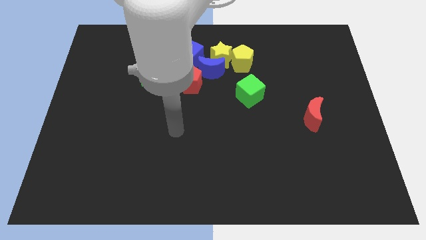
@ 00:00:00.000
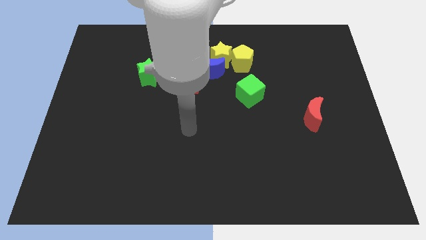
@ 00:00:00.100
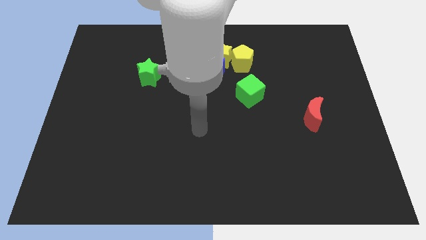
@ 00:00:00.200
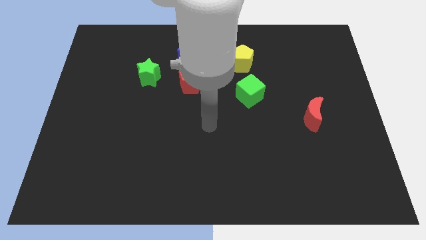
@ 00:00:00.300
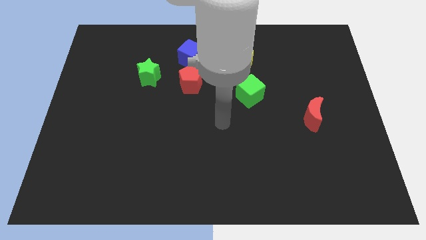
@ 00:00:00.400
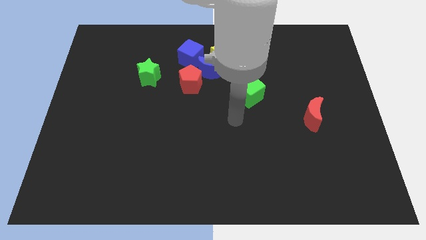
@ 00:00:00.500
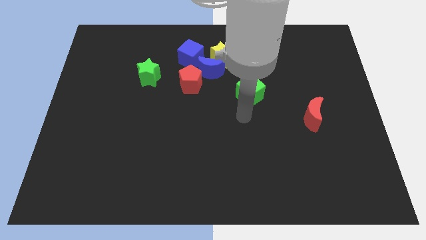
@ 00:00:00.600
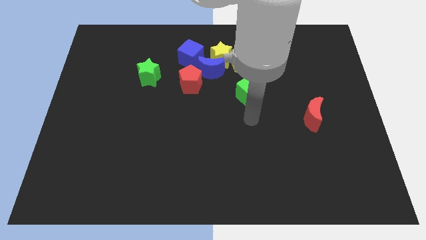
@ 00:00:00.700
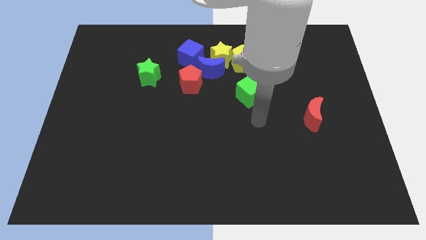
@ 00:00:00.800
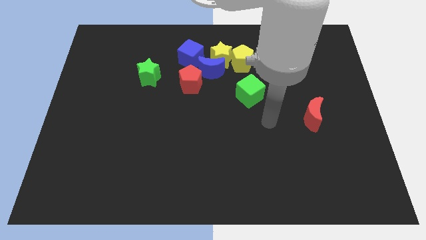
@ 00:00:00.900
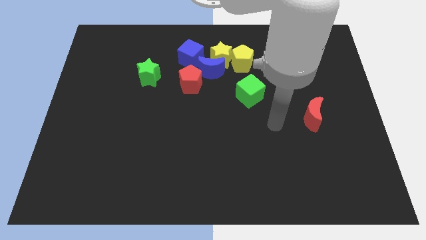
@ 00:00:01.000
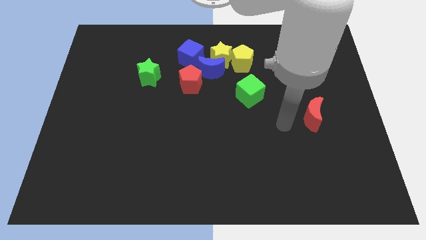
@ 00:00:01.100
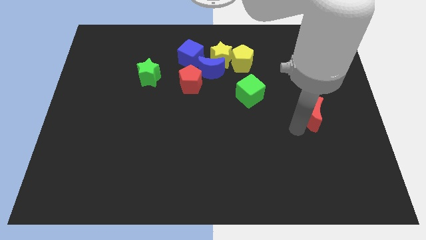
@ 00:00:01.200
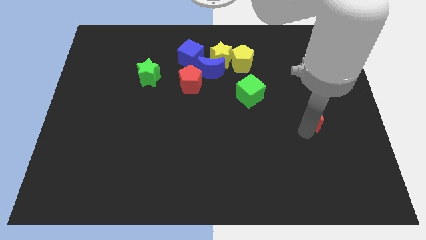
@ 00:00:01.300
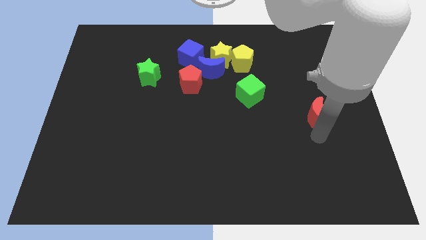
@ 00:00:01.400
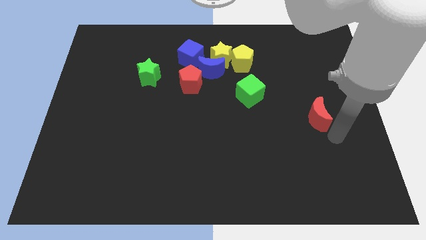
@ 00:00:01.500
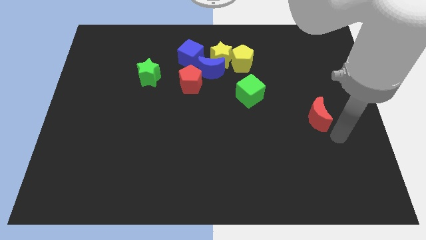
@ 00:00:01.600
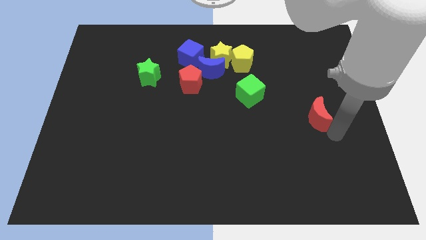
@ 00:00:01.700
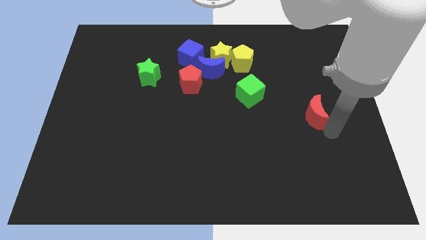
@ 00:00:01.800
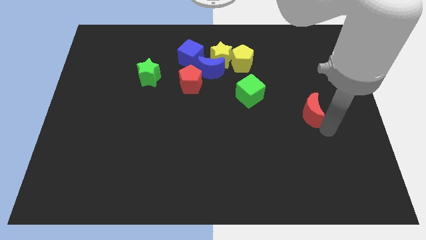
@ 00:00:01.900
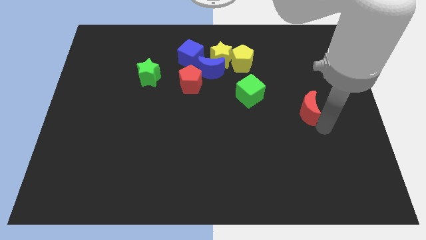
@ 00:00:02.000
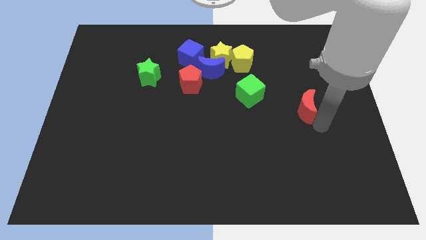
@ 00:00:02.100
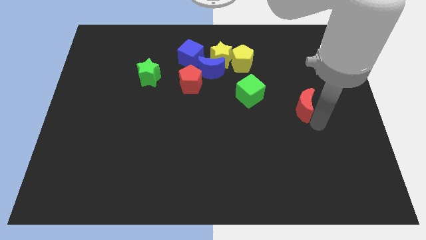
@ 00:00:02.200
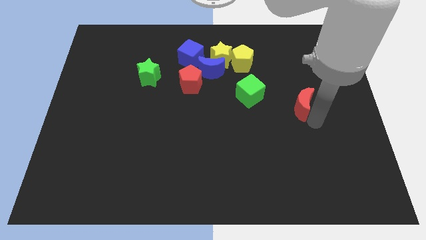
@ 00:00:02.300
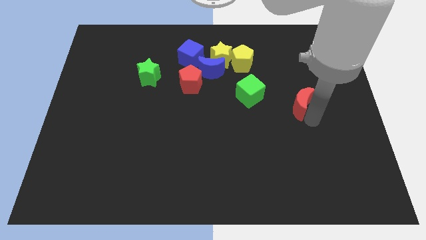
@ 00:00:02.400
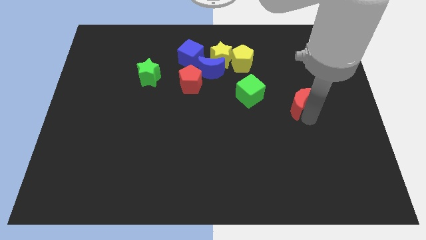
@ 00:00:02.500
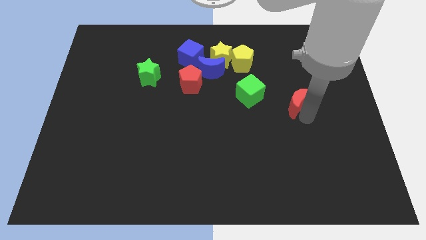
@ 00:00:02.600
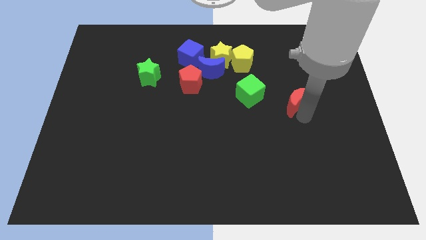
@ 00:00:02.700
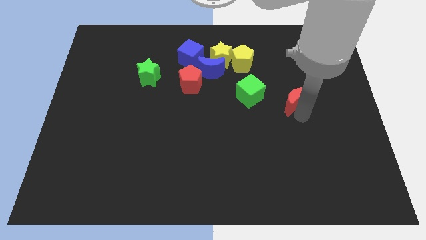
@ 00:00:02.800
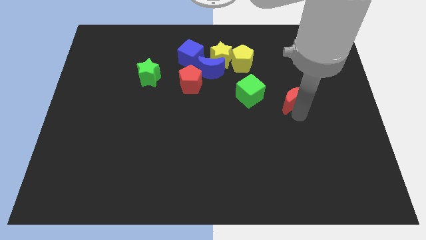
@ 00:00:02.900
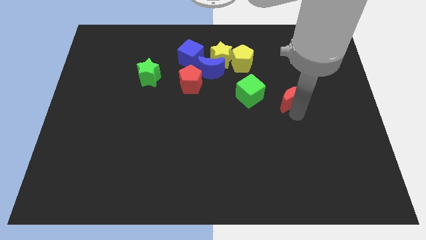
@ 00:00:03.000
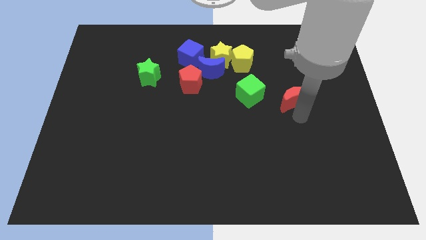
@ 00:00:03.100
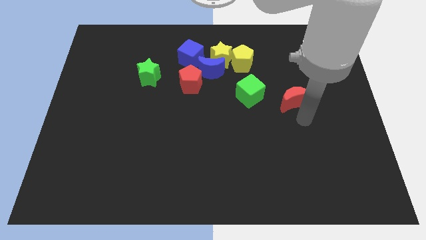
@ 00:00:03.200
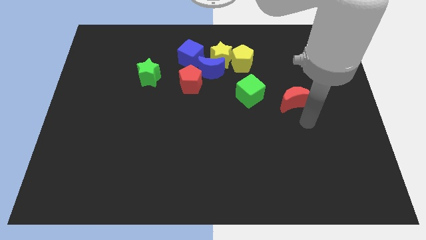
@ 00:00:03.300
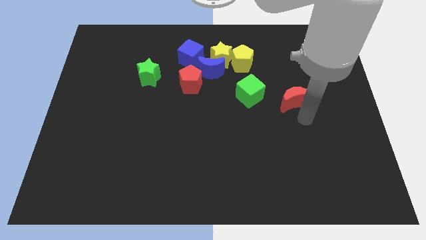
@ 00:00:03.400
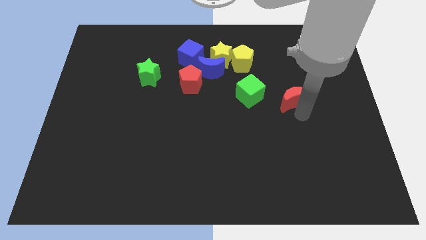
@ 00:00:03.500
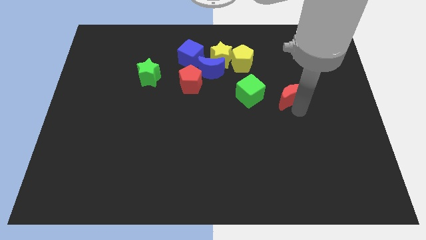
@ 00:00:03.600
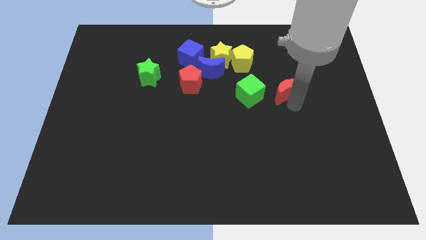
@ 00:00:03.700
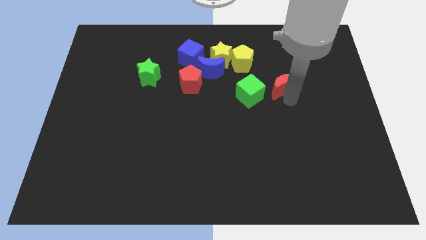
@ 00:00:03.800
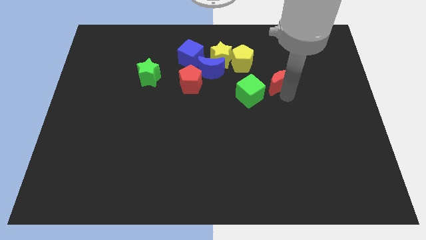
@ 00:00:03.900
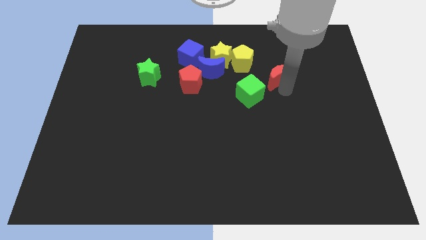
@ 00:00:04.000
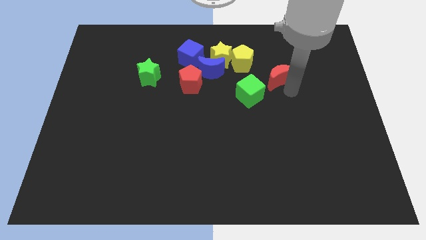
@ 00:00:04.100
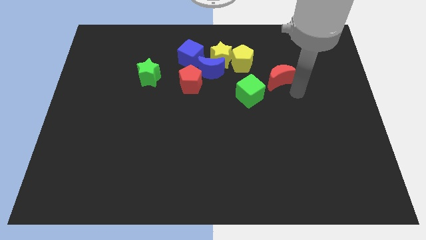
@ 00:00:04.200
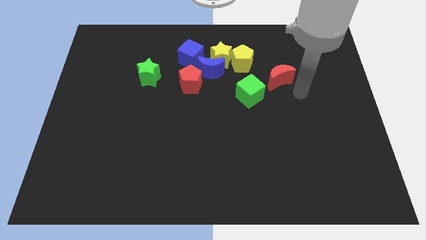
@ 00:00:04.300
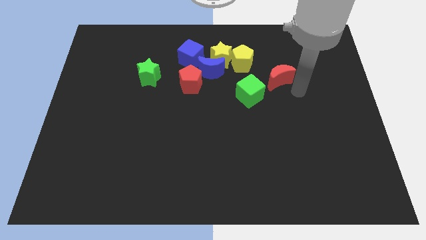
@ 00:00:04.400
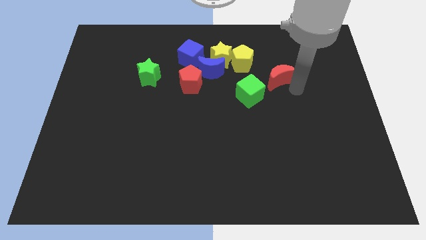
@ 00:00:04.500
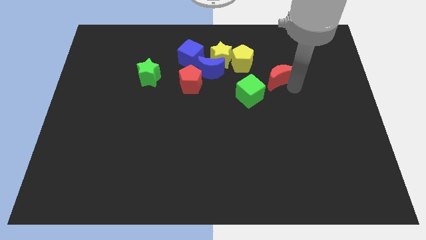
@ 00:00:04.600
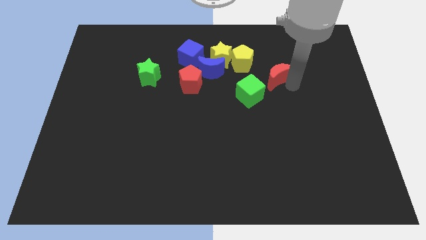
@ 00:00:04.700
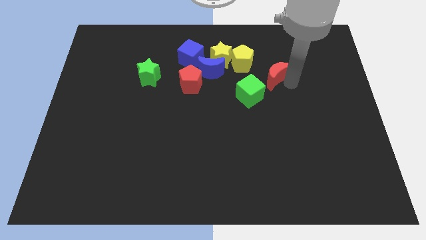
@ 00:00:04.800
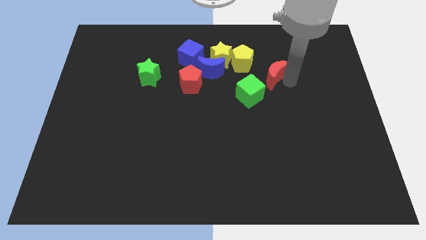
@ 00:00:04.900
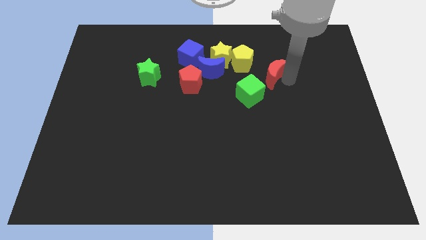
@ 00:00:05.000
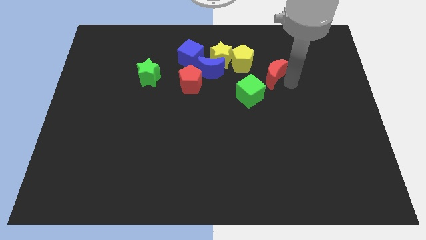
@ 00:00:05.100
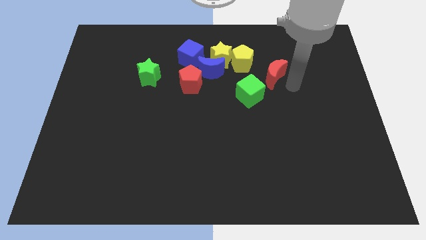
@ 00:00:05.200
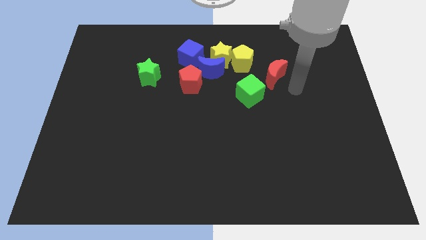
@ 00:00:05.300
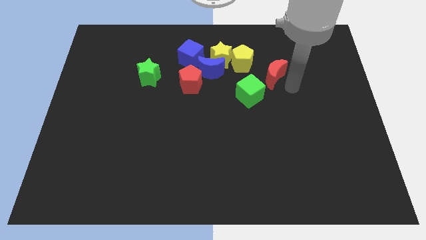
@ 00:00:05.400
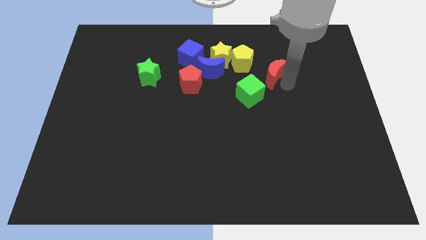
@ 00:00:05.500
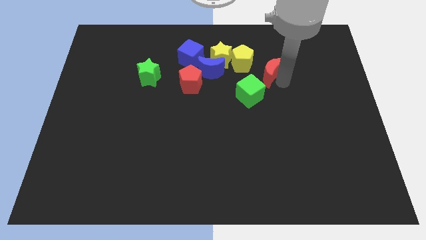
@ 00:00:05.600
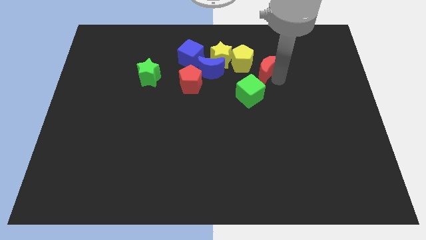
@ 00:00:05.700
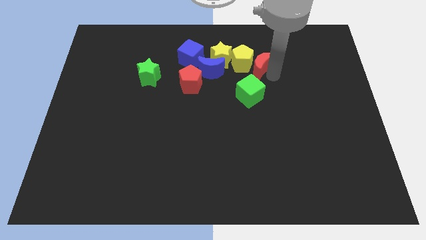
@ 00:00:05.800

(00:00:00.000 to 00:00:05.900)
slide the red moon next to the yellow pentagon
